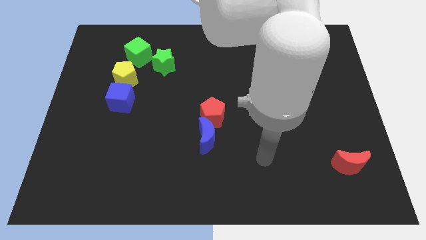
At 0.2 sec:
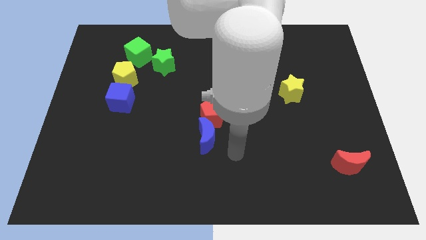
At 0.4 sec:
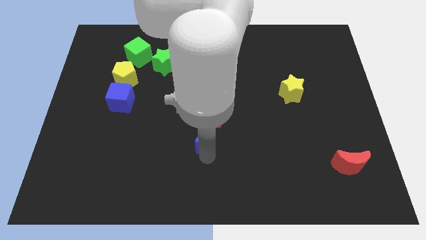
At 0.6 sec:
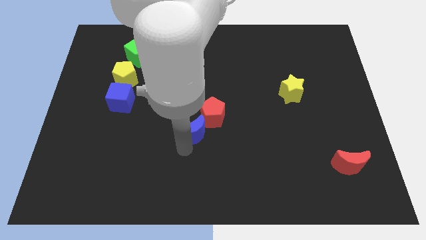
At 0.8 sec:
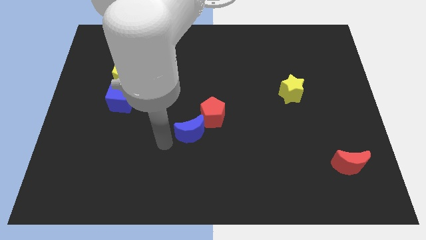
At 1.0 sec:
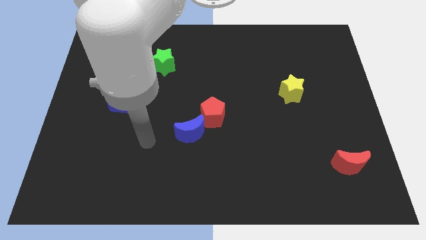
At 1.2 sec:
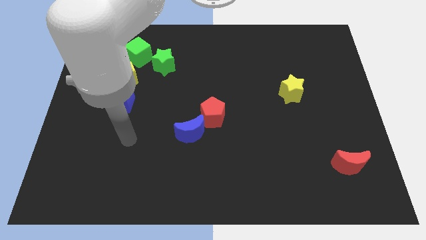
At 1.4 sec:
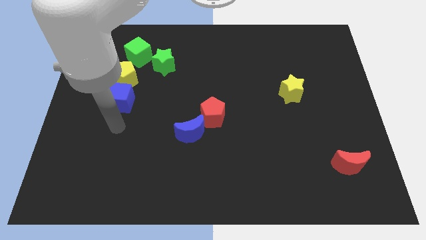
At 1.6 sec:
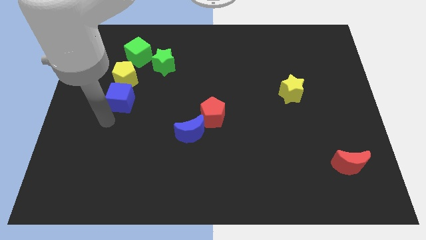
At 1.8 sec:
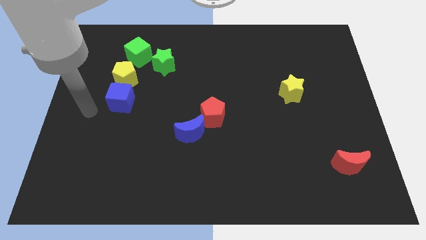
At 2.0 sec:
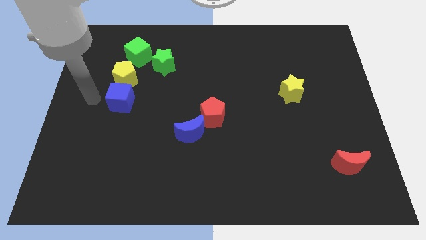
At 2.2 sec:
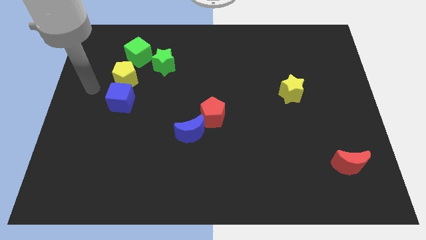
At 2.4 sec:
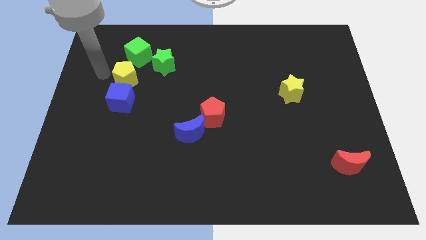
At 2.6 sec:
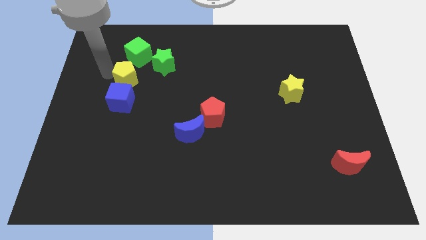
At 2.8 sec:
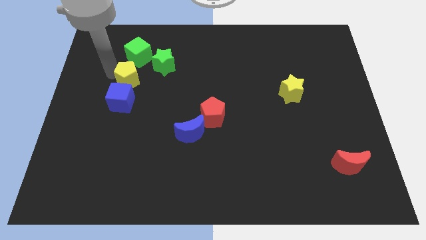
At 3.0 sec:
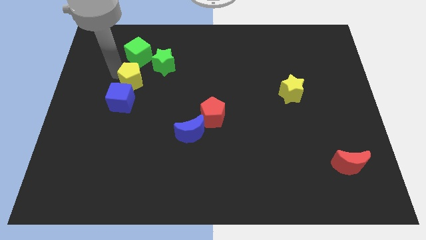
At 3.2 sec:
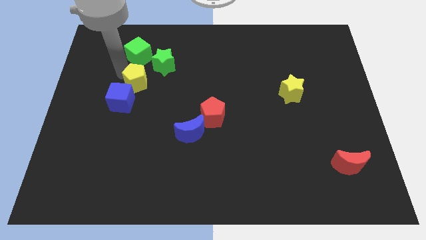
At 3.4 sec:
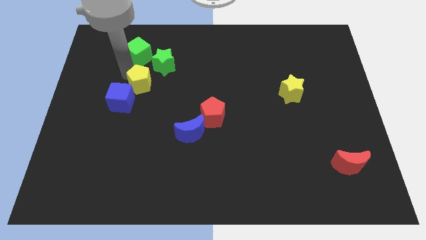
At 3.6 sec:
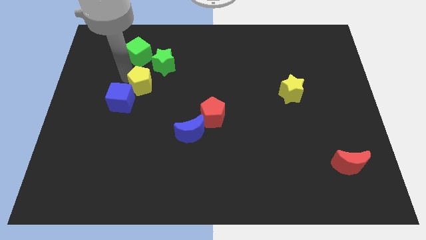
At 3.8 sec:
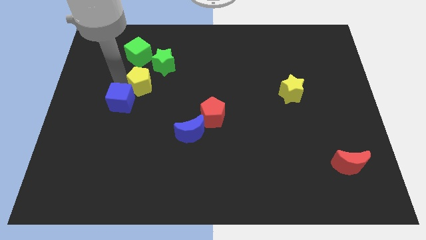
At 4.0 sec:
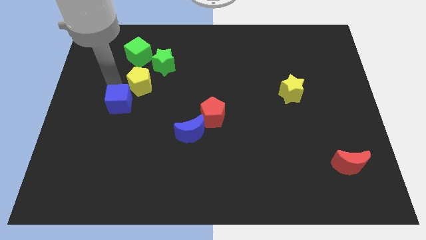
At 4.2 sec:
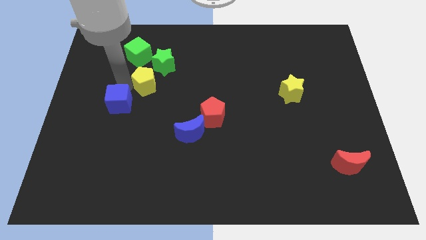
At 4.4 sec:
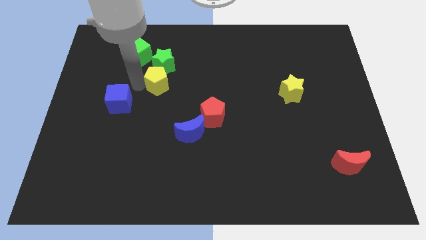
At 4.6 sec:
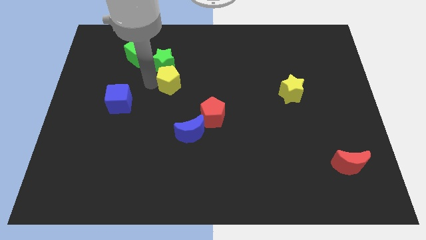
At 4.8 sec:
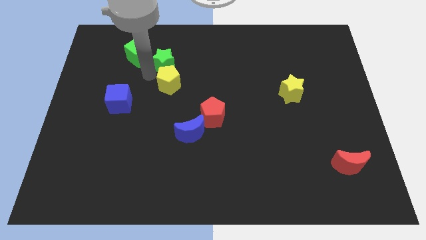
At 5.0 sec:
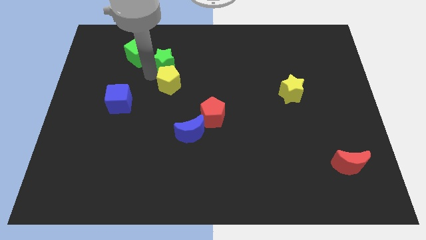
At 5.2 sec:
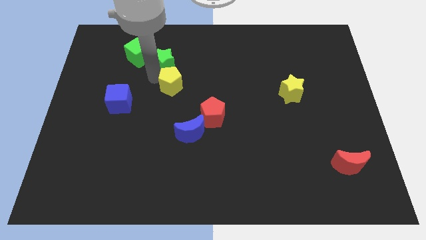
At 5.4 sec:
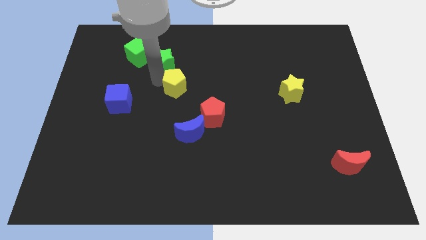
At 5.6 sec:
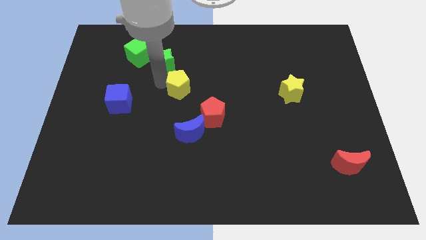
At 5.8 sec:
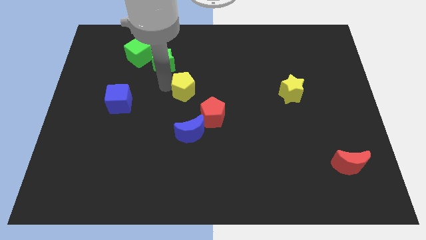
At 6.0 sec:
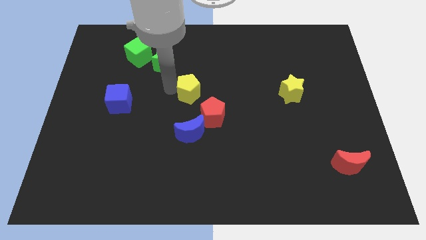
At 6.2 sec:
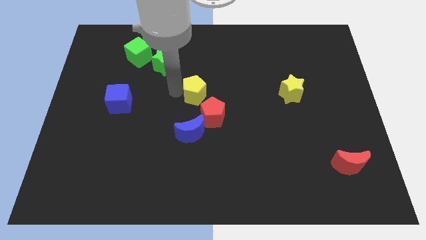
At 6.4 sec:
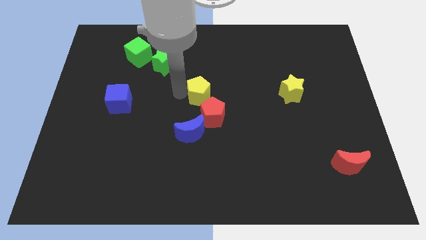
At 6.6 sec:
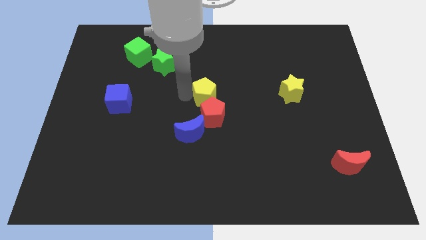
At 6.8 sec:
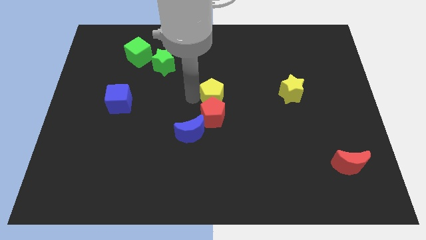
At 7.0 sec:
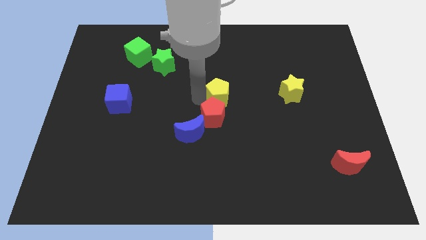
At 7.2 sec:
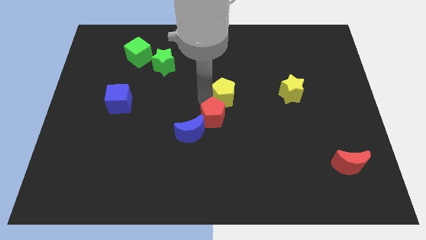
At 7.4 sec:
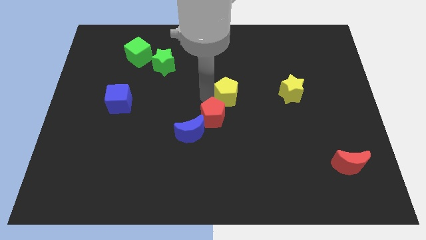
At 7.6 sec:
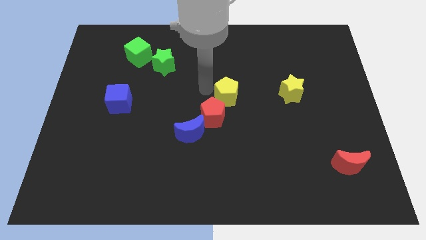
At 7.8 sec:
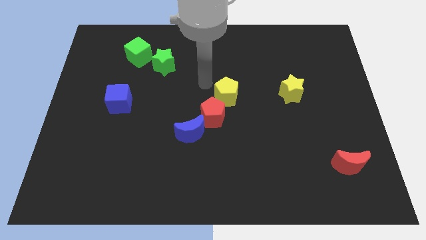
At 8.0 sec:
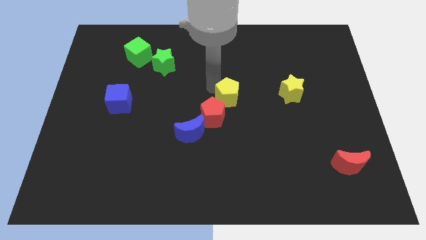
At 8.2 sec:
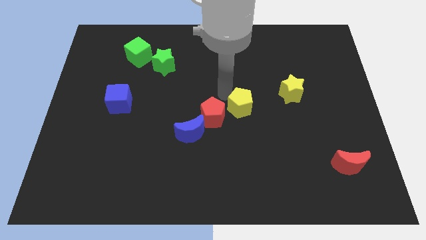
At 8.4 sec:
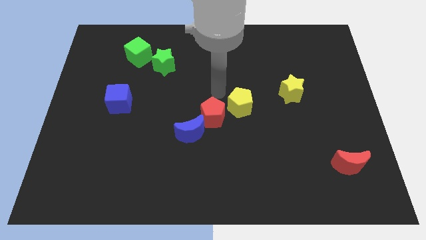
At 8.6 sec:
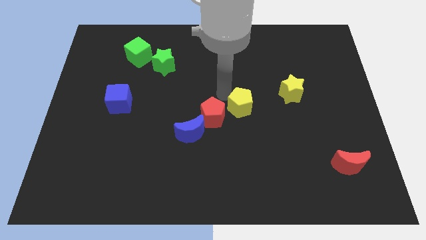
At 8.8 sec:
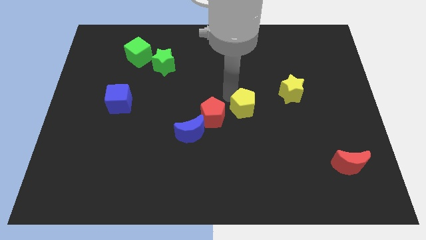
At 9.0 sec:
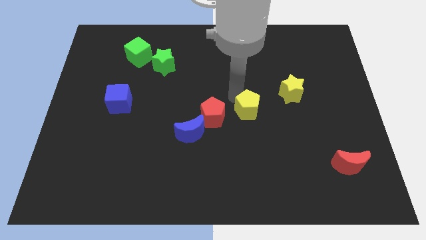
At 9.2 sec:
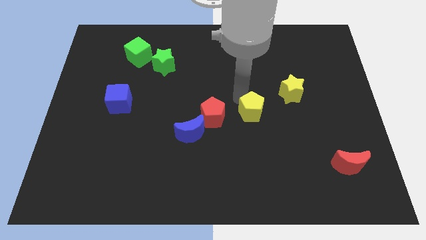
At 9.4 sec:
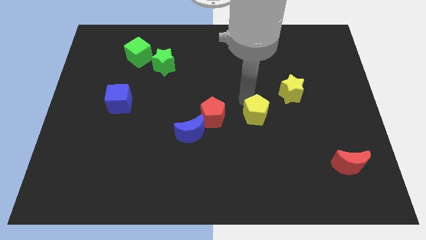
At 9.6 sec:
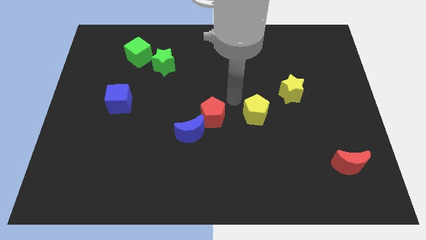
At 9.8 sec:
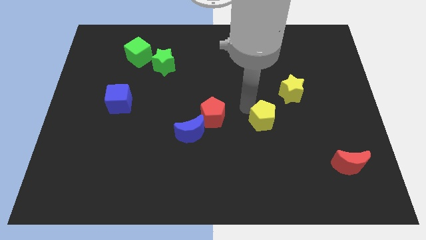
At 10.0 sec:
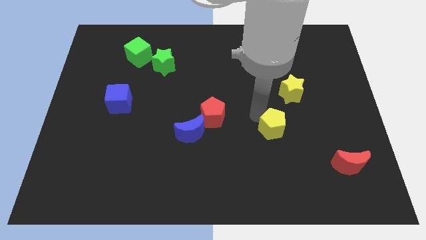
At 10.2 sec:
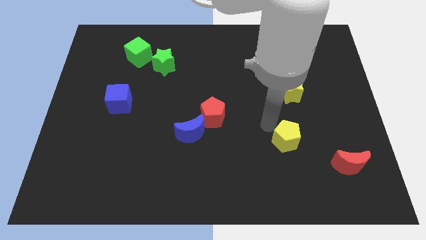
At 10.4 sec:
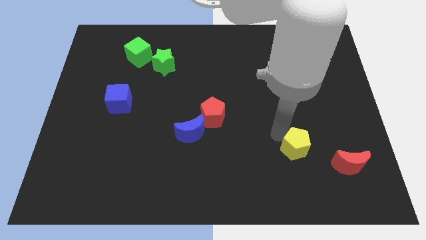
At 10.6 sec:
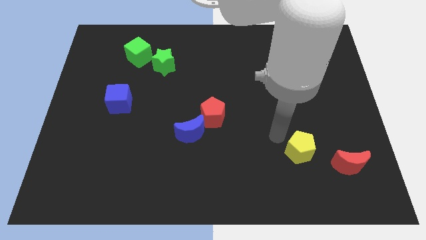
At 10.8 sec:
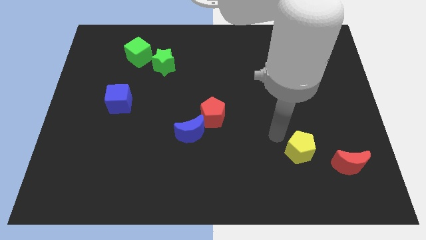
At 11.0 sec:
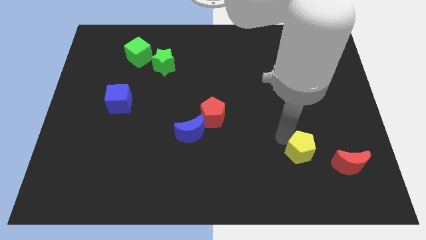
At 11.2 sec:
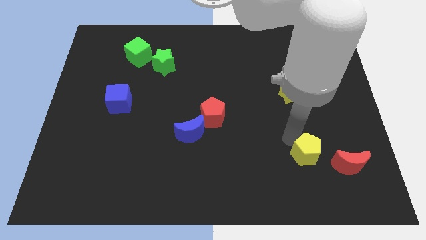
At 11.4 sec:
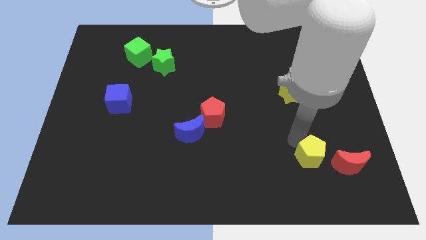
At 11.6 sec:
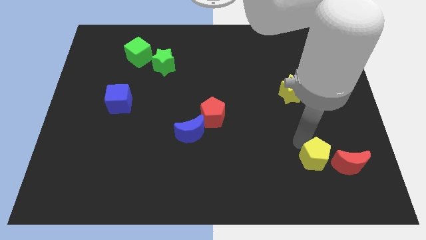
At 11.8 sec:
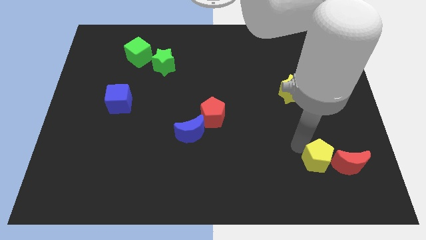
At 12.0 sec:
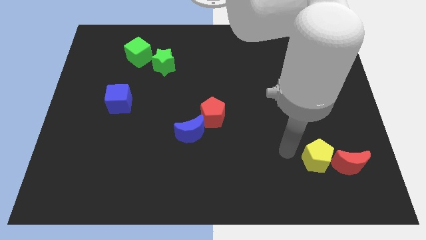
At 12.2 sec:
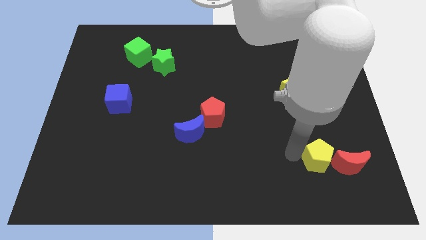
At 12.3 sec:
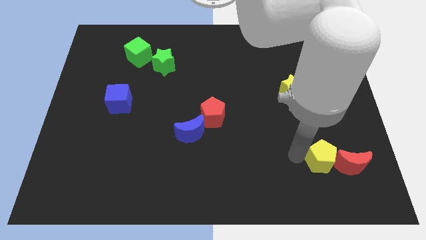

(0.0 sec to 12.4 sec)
put the yellow pentagon to the red moon

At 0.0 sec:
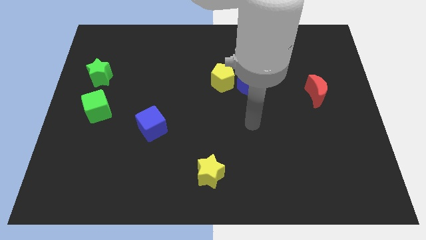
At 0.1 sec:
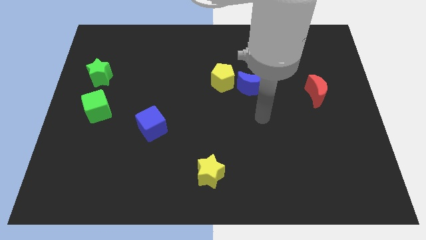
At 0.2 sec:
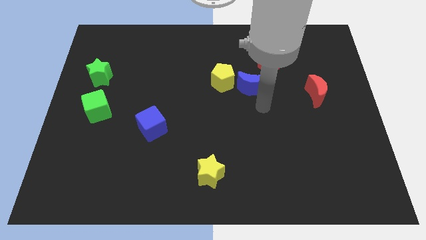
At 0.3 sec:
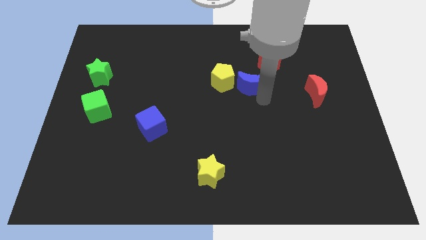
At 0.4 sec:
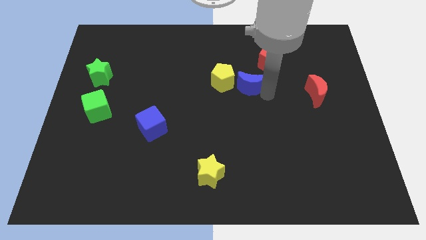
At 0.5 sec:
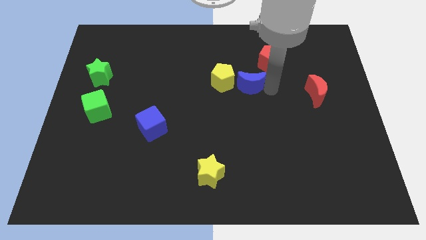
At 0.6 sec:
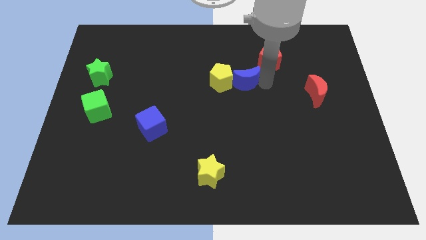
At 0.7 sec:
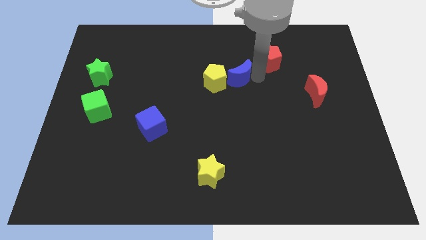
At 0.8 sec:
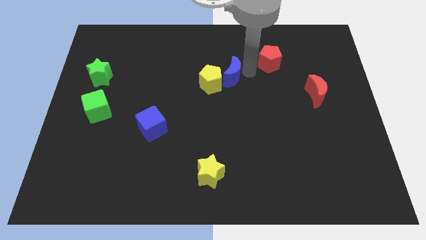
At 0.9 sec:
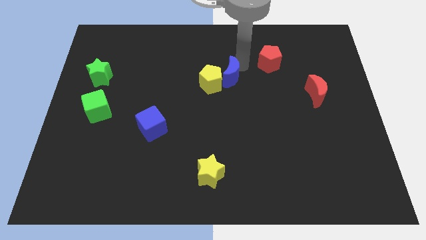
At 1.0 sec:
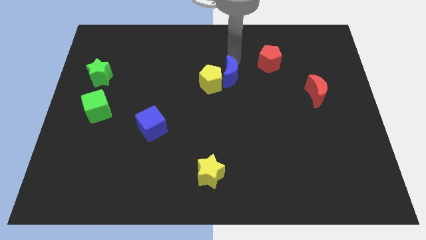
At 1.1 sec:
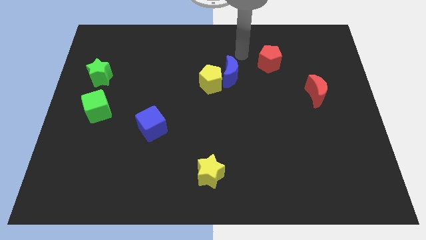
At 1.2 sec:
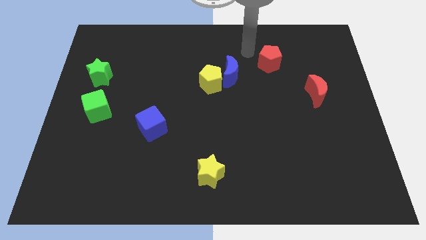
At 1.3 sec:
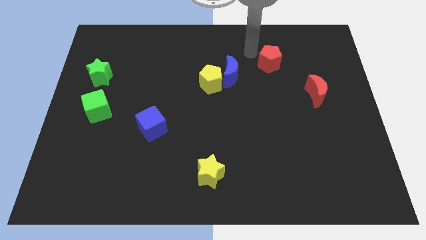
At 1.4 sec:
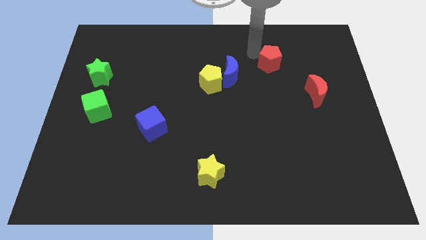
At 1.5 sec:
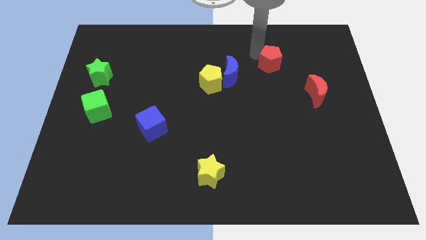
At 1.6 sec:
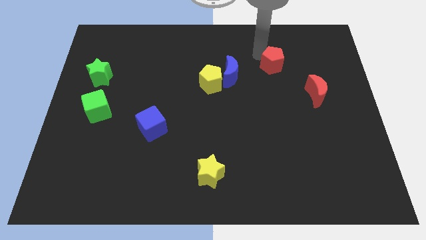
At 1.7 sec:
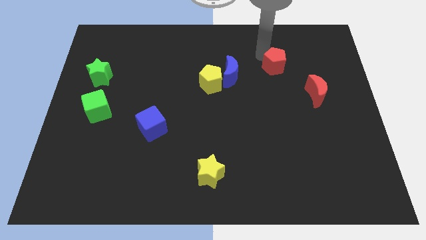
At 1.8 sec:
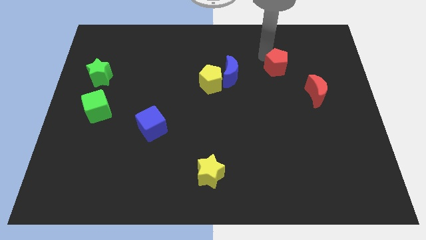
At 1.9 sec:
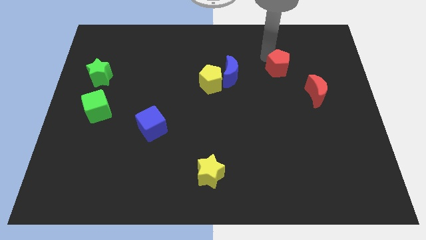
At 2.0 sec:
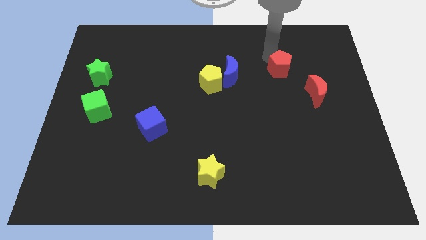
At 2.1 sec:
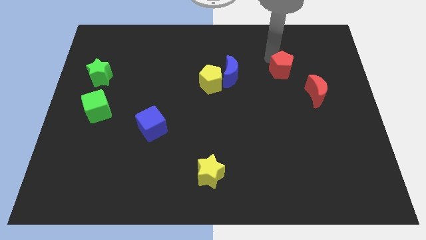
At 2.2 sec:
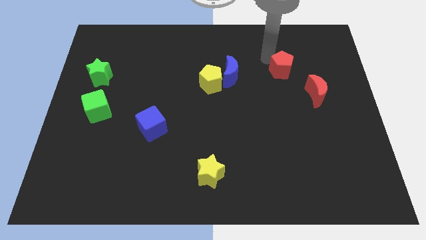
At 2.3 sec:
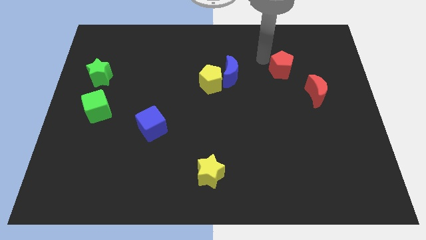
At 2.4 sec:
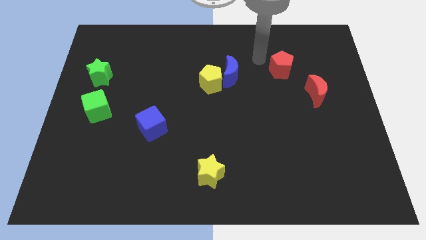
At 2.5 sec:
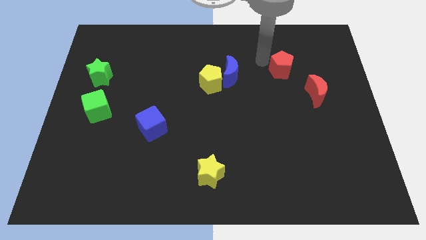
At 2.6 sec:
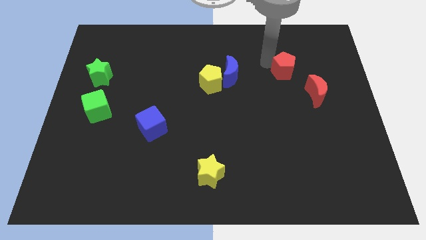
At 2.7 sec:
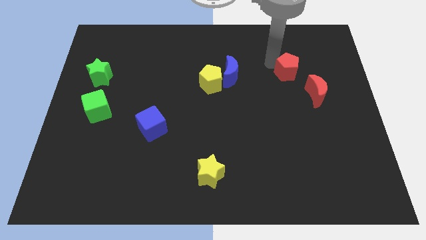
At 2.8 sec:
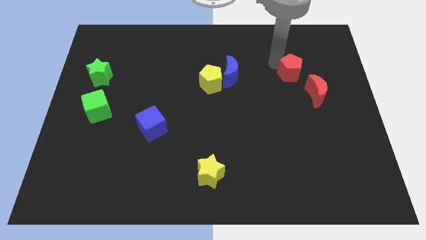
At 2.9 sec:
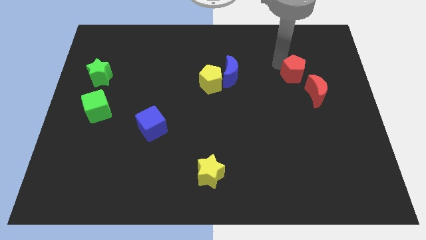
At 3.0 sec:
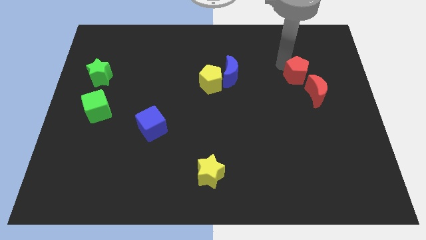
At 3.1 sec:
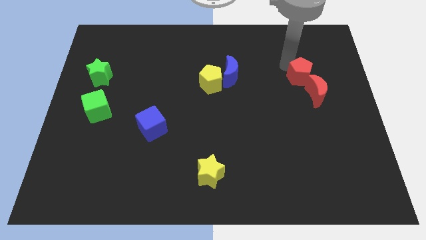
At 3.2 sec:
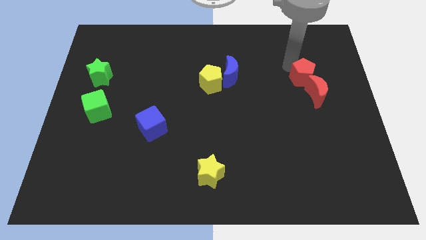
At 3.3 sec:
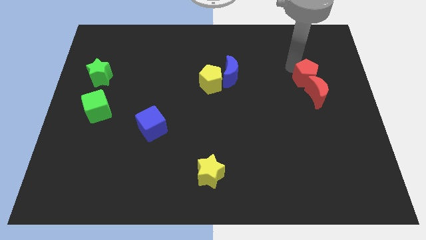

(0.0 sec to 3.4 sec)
push the red pentagon towards the red moon
